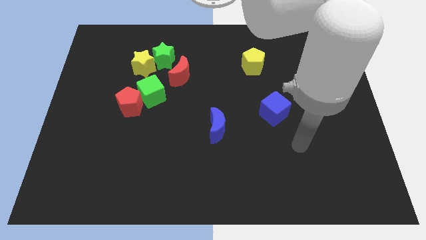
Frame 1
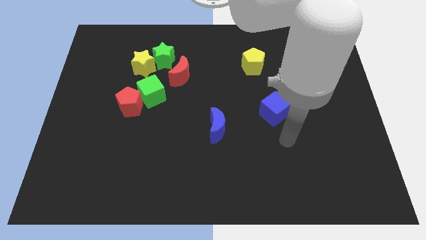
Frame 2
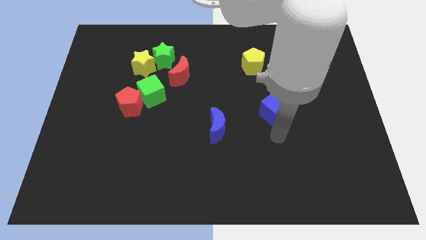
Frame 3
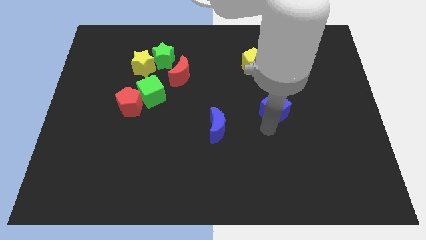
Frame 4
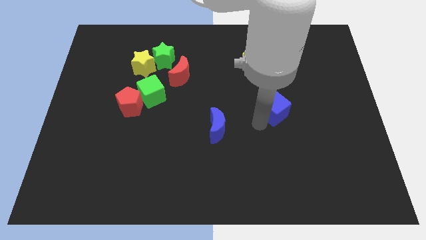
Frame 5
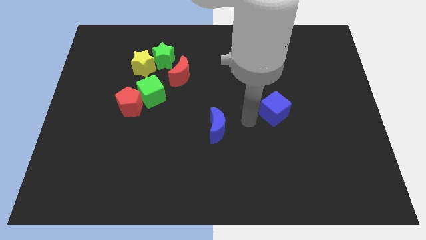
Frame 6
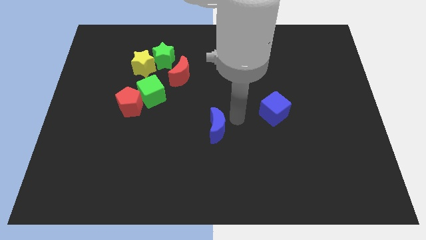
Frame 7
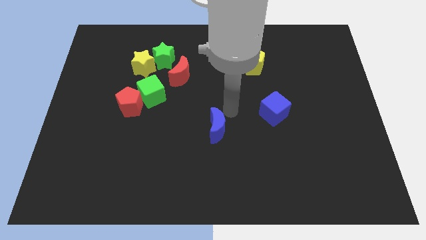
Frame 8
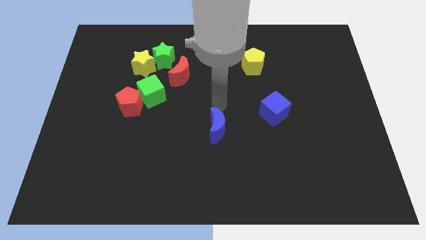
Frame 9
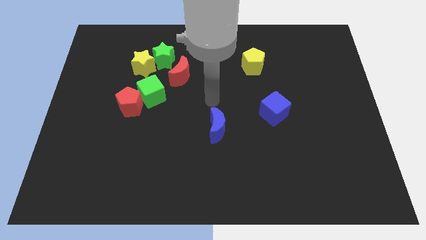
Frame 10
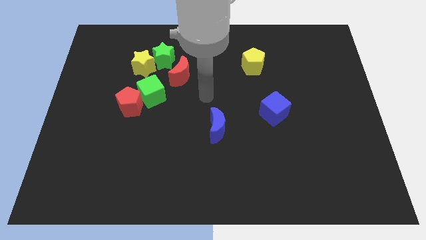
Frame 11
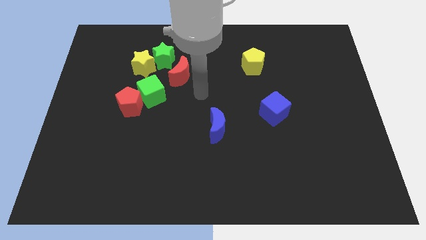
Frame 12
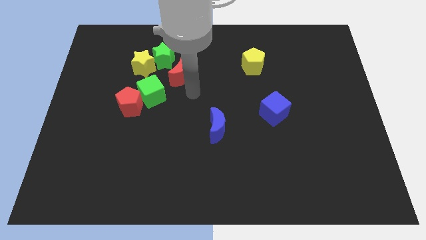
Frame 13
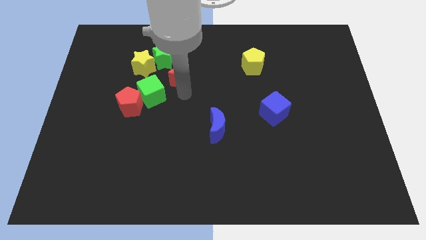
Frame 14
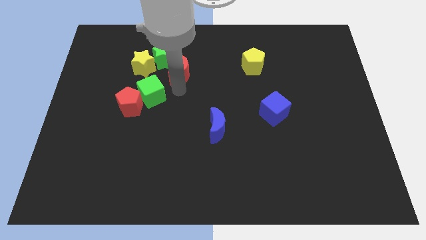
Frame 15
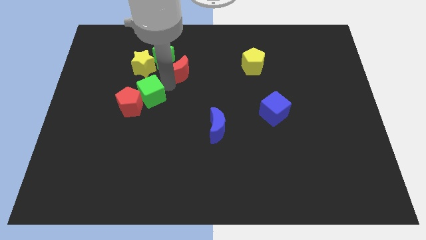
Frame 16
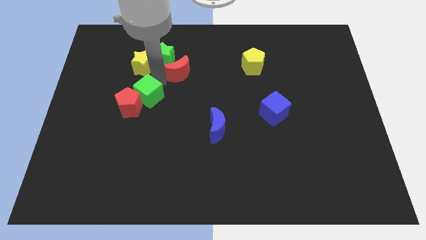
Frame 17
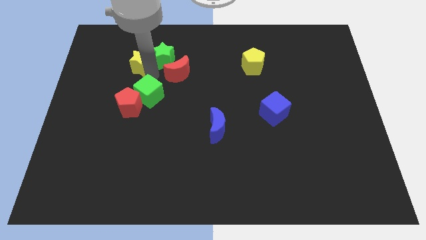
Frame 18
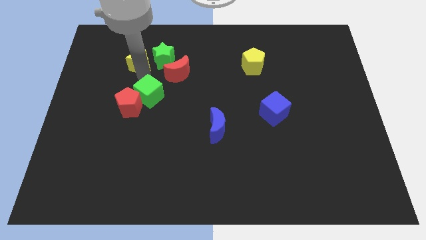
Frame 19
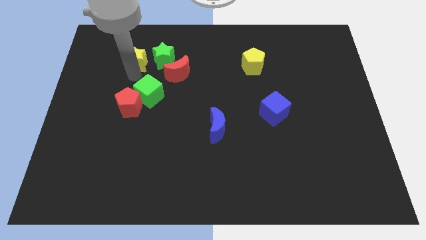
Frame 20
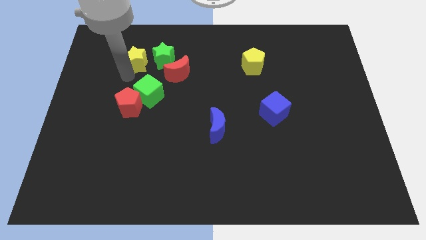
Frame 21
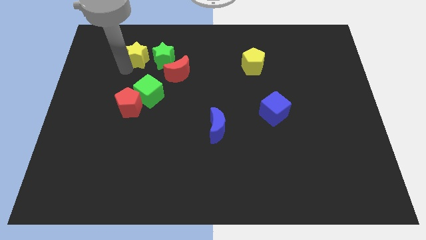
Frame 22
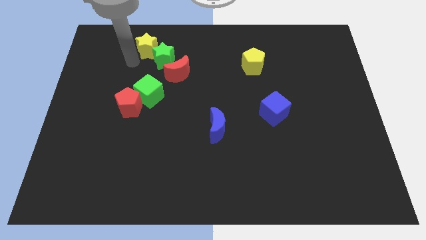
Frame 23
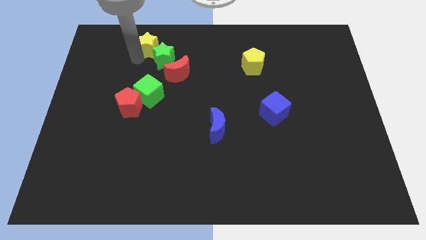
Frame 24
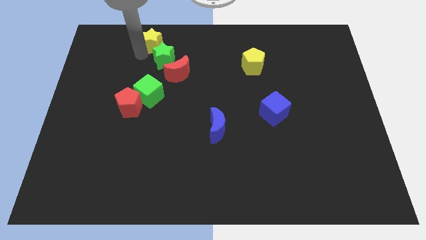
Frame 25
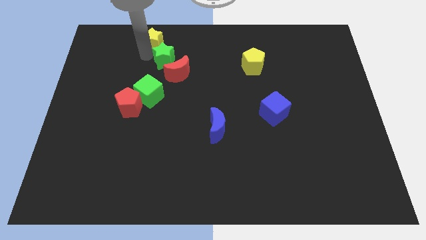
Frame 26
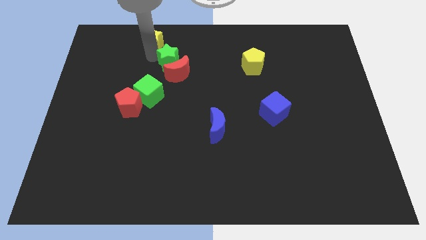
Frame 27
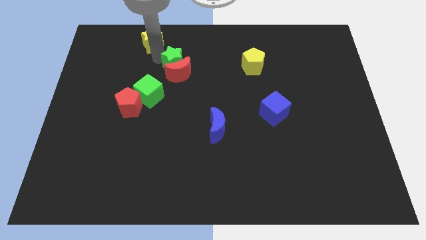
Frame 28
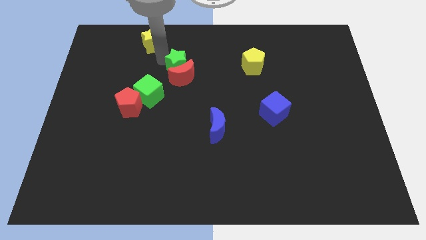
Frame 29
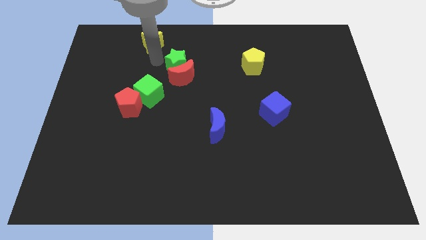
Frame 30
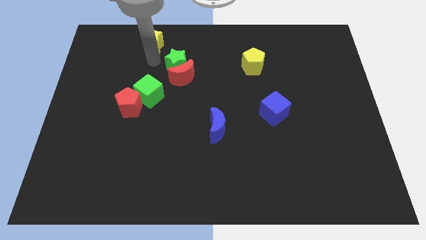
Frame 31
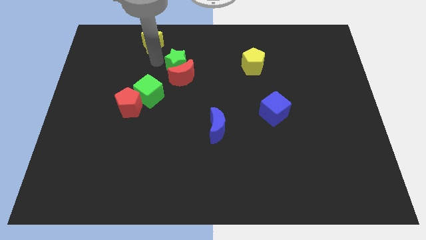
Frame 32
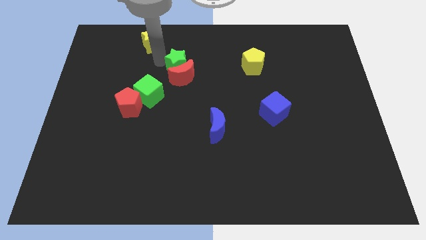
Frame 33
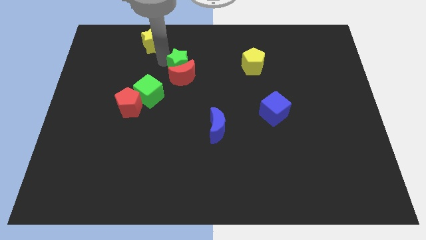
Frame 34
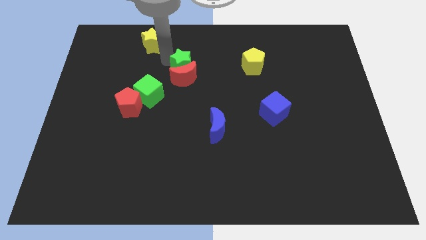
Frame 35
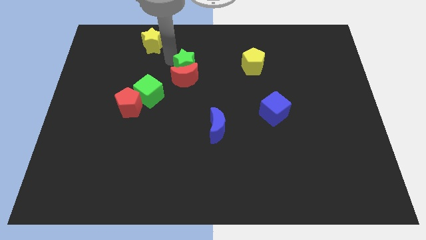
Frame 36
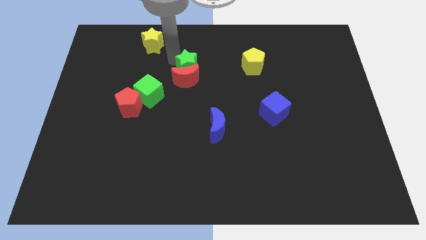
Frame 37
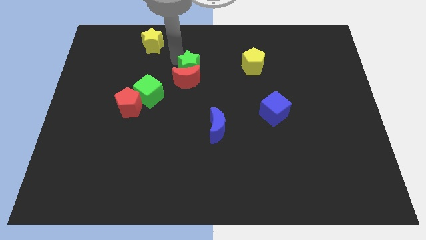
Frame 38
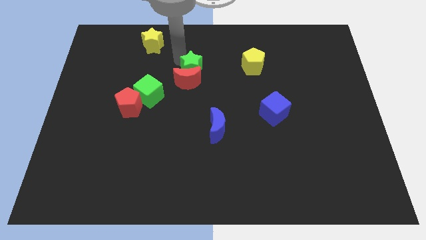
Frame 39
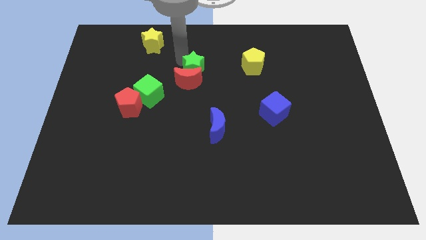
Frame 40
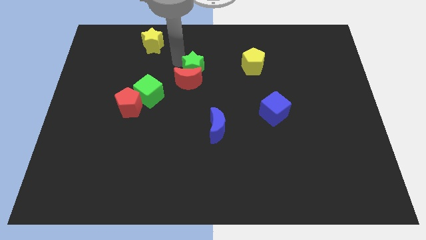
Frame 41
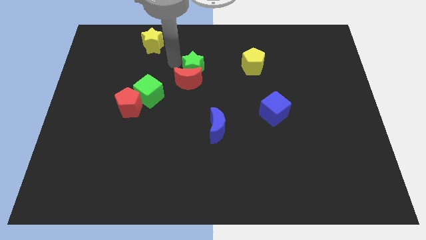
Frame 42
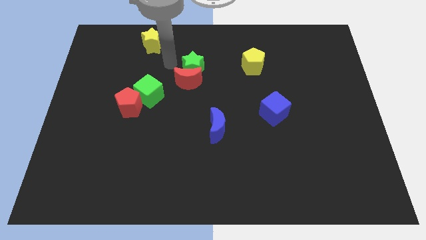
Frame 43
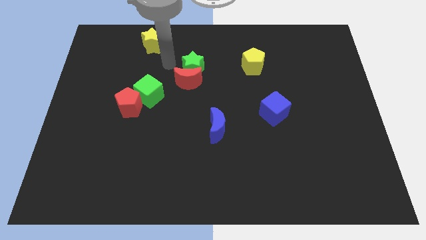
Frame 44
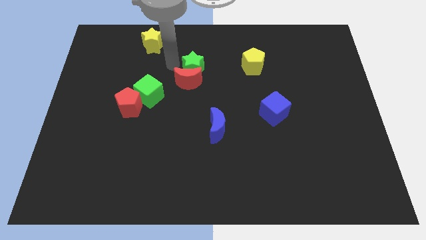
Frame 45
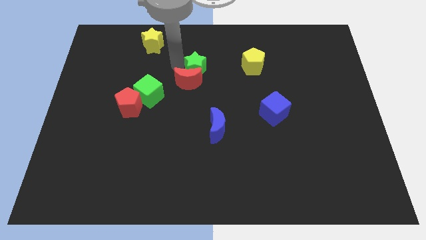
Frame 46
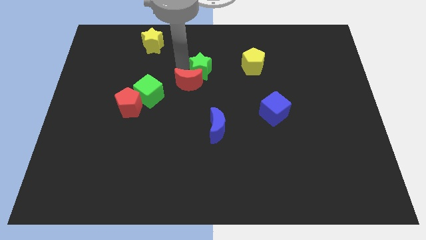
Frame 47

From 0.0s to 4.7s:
push the green star right of the red moon

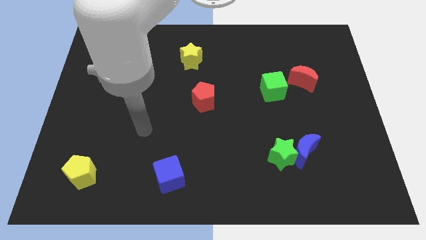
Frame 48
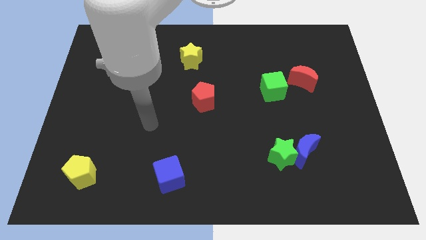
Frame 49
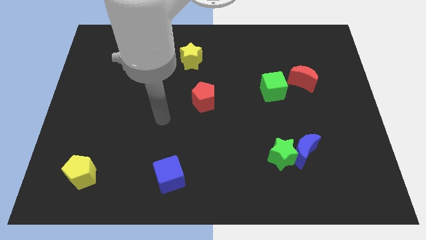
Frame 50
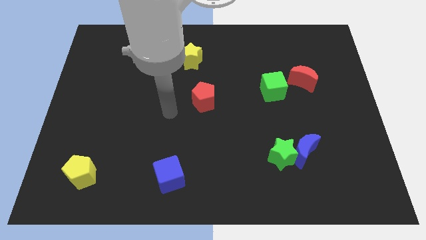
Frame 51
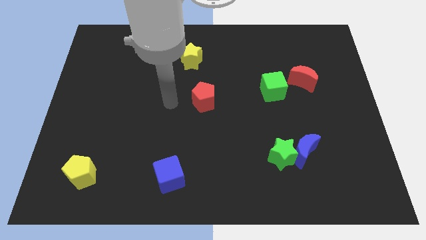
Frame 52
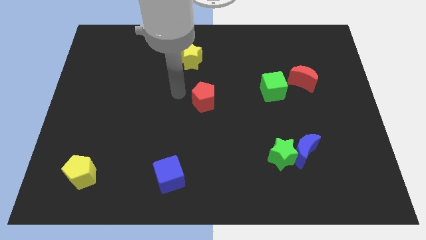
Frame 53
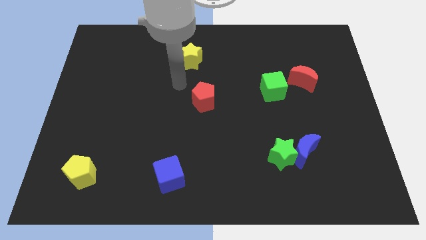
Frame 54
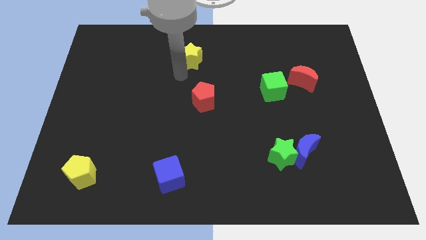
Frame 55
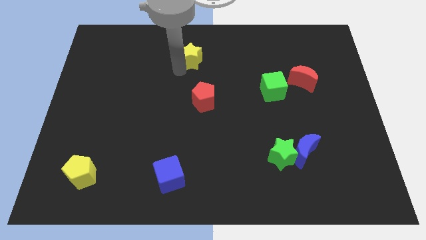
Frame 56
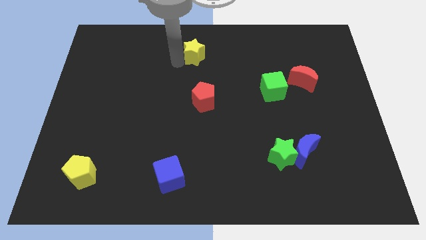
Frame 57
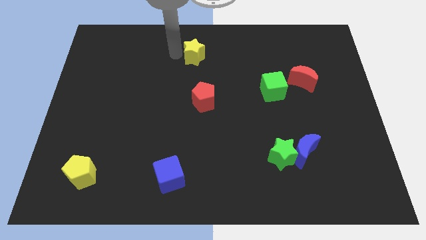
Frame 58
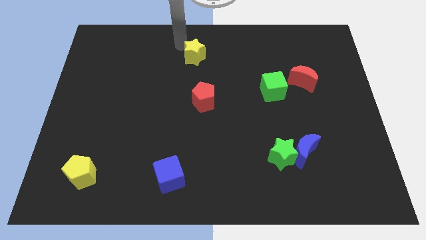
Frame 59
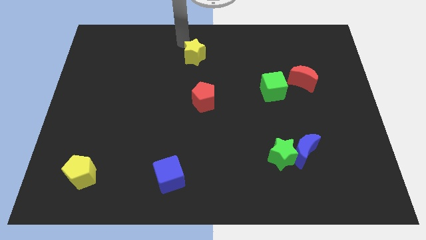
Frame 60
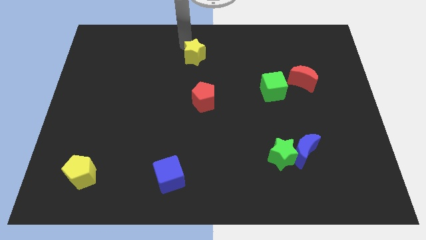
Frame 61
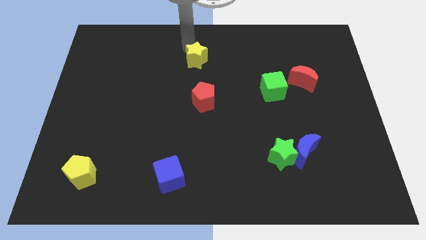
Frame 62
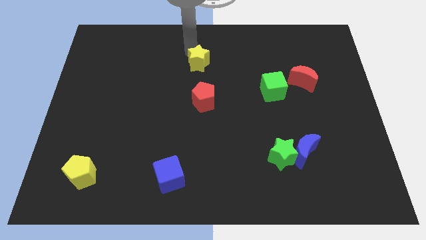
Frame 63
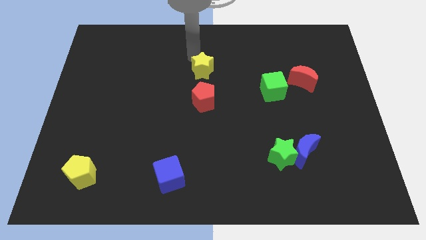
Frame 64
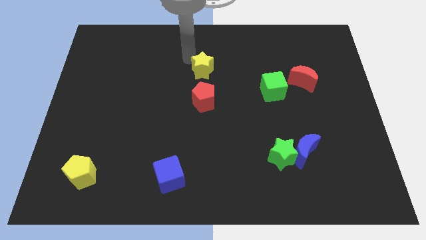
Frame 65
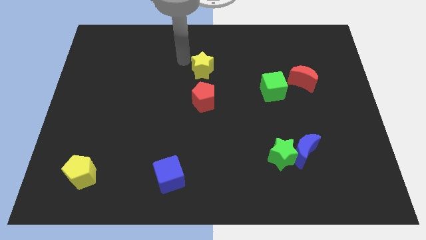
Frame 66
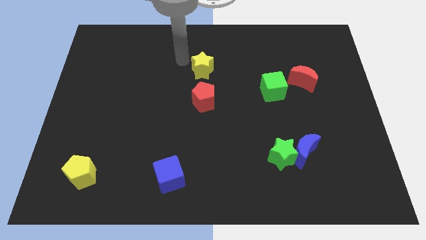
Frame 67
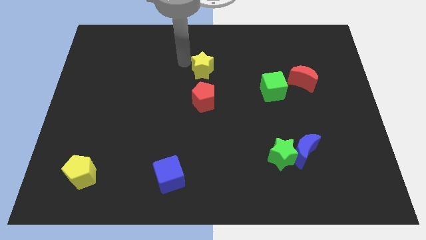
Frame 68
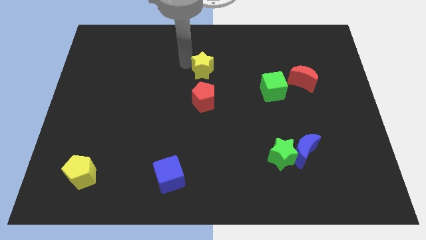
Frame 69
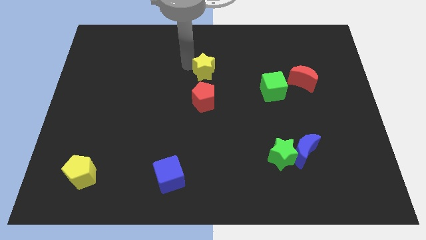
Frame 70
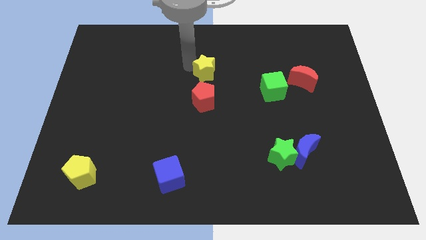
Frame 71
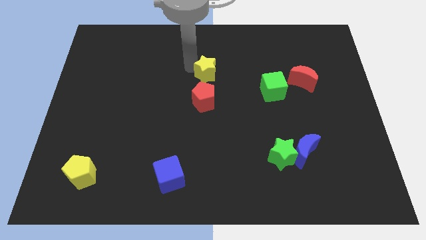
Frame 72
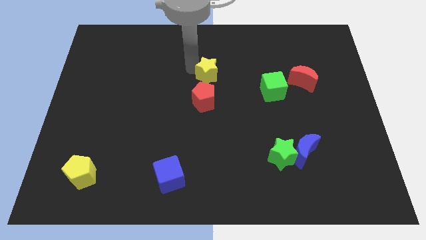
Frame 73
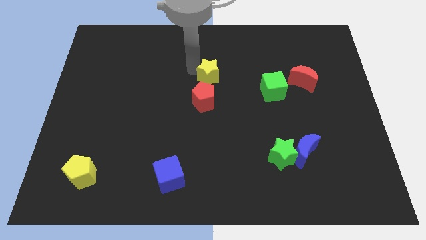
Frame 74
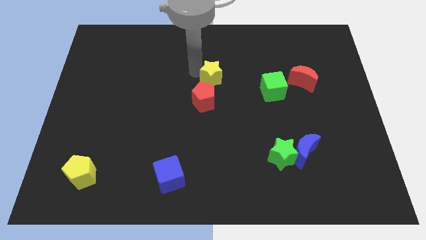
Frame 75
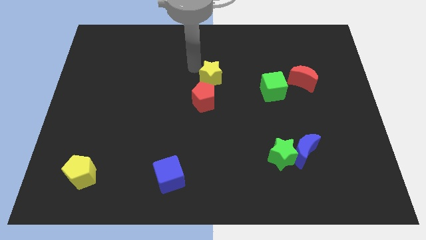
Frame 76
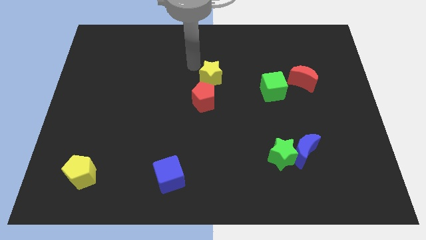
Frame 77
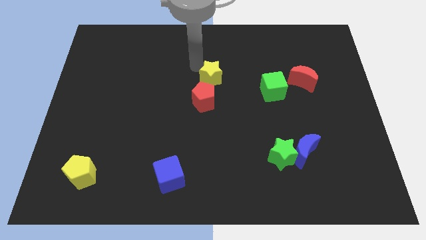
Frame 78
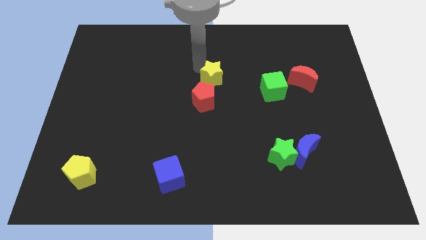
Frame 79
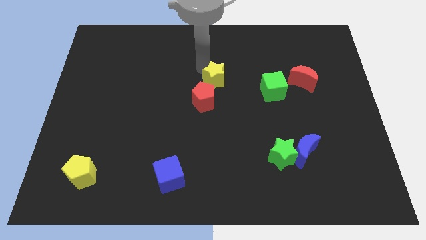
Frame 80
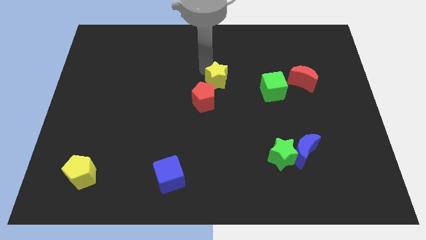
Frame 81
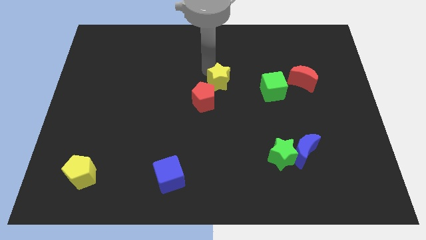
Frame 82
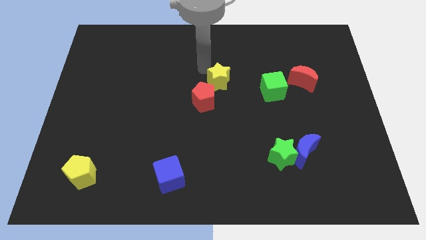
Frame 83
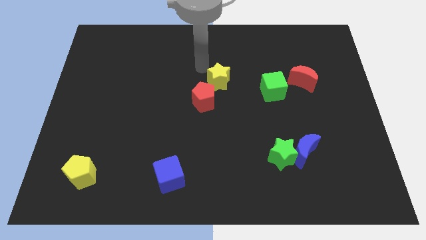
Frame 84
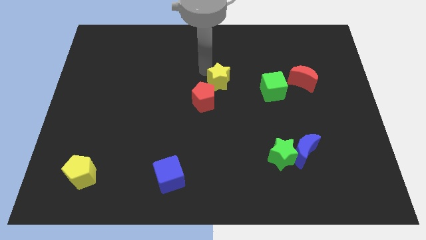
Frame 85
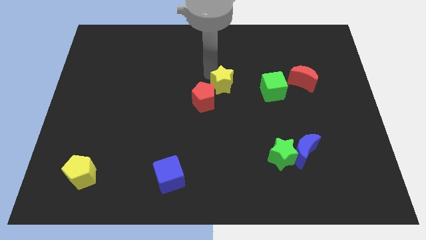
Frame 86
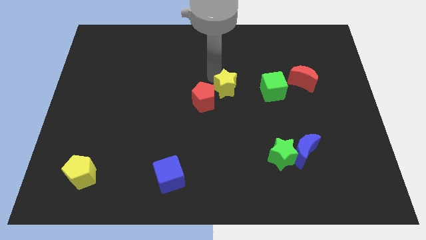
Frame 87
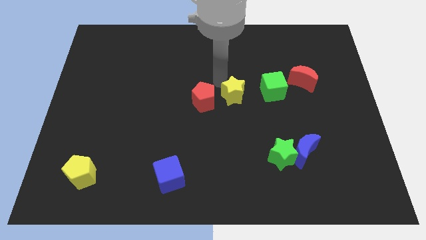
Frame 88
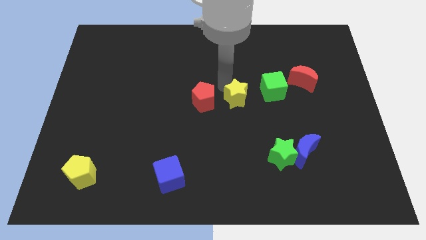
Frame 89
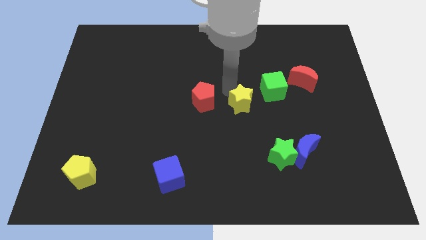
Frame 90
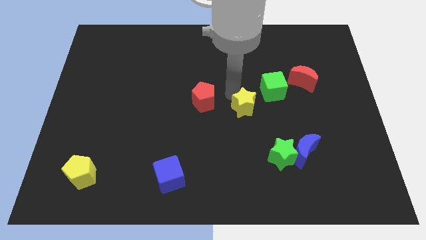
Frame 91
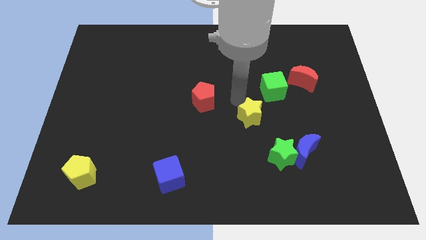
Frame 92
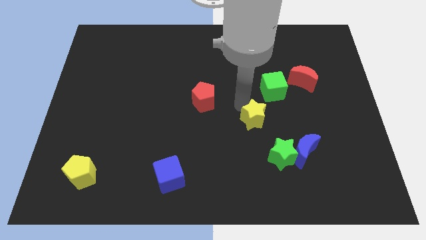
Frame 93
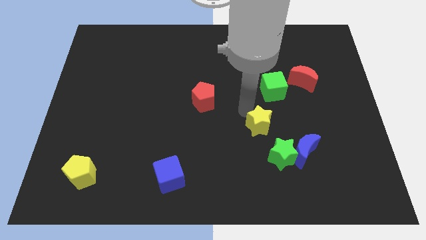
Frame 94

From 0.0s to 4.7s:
slide the yellow star to the top left of the blue moon
